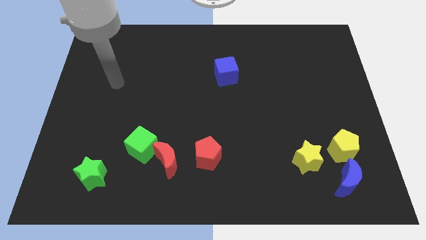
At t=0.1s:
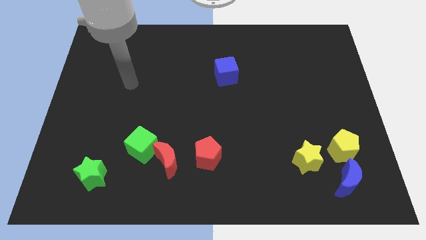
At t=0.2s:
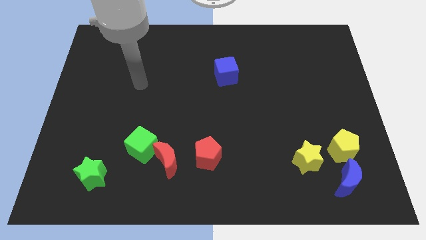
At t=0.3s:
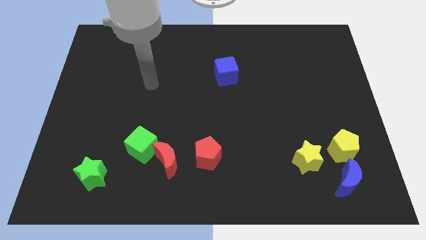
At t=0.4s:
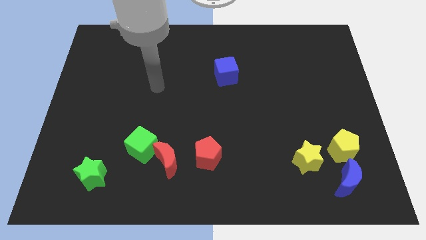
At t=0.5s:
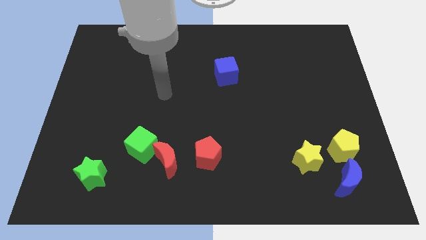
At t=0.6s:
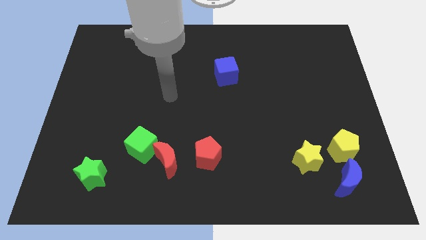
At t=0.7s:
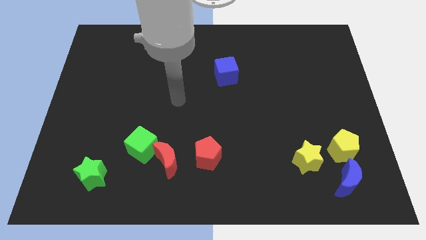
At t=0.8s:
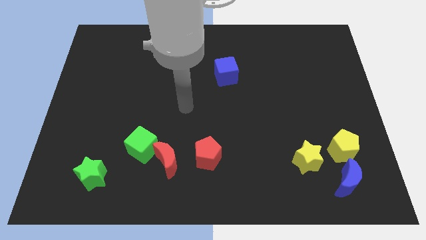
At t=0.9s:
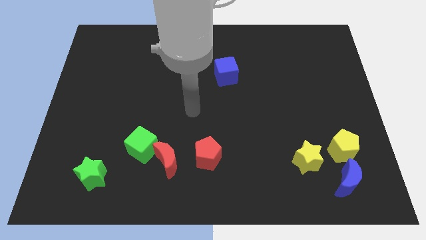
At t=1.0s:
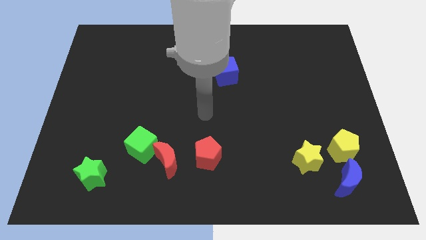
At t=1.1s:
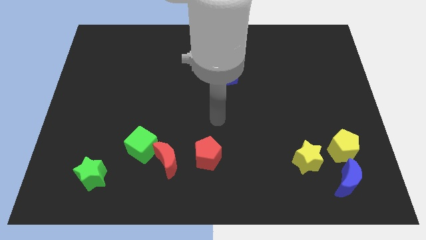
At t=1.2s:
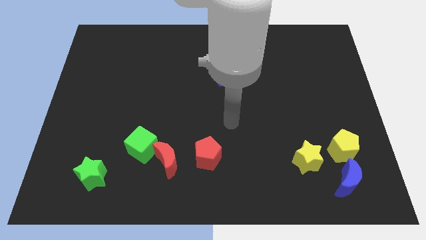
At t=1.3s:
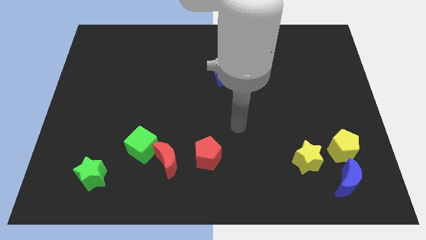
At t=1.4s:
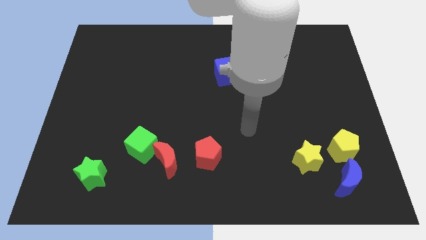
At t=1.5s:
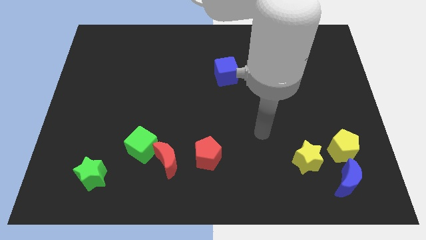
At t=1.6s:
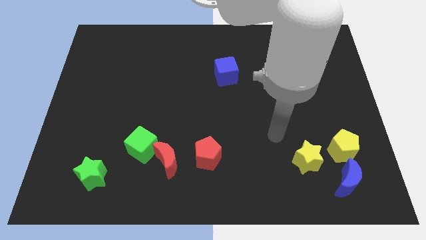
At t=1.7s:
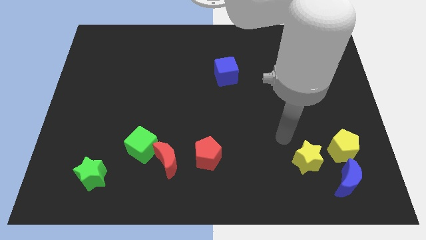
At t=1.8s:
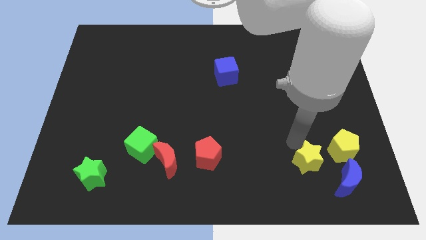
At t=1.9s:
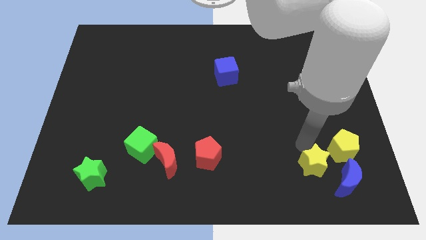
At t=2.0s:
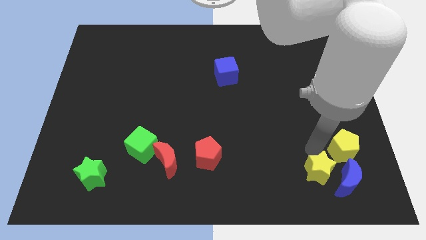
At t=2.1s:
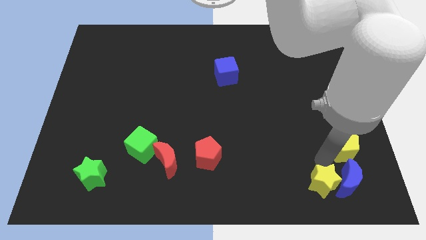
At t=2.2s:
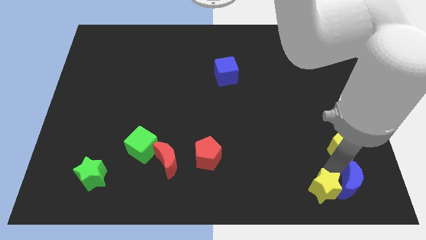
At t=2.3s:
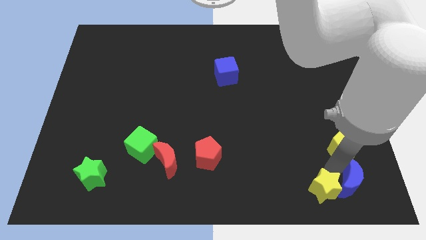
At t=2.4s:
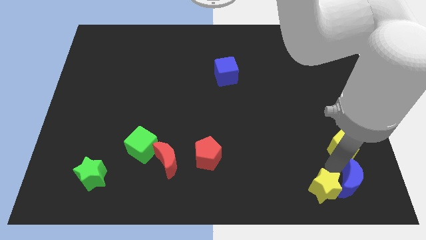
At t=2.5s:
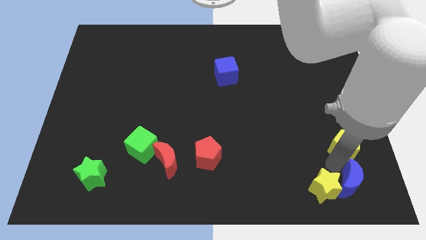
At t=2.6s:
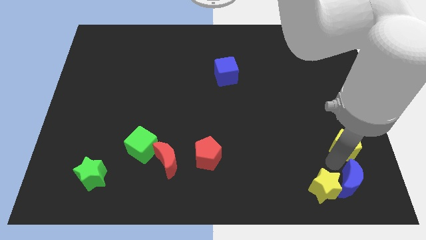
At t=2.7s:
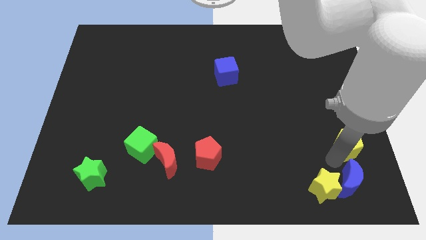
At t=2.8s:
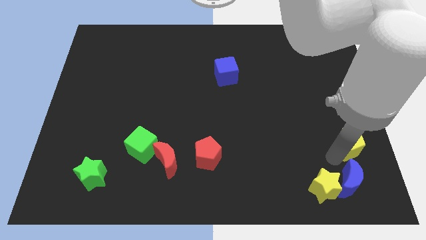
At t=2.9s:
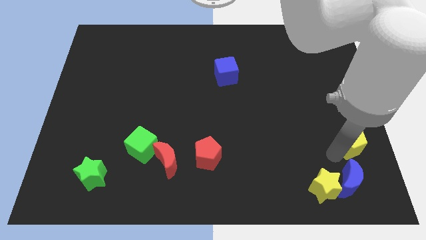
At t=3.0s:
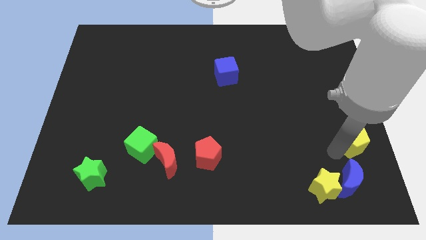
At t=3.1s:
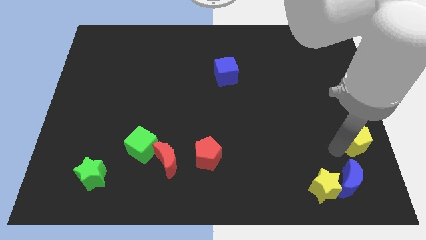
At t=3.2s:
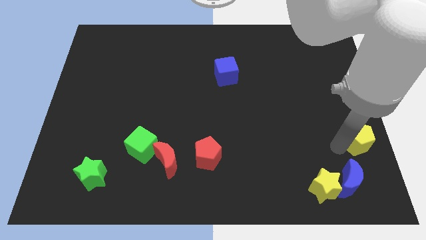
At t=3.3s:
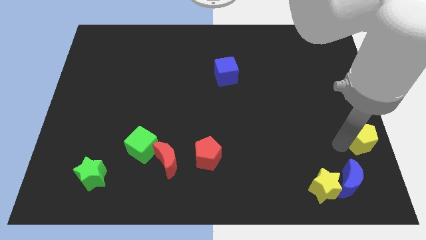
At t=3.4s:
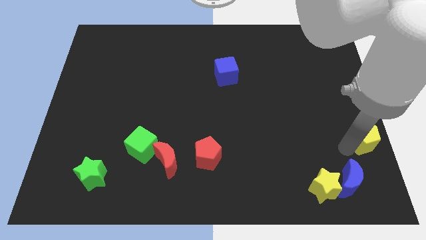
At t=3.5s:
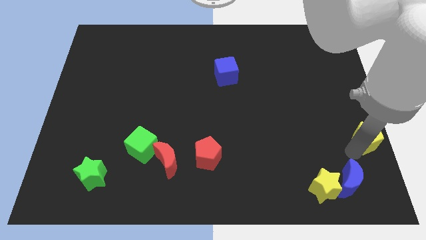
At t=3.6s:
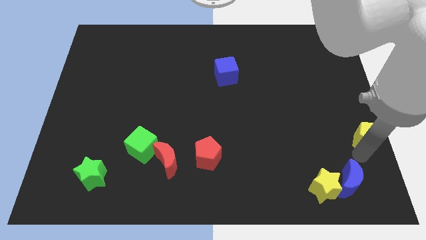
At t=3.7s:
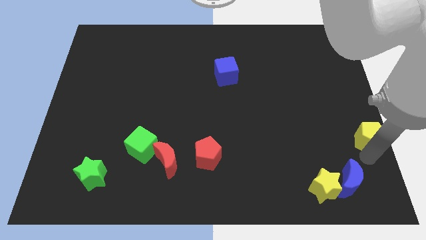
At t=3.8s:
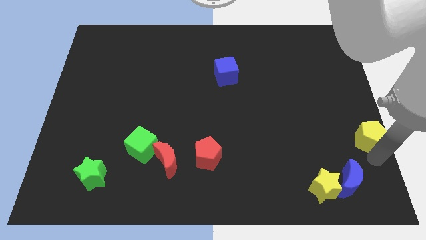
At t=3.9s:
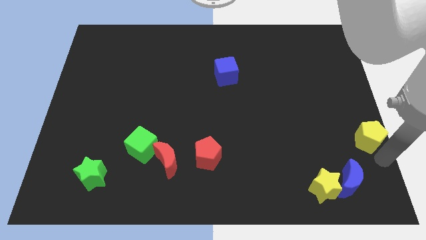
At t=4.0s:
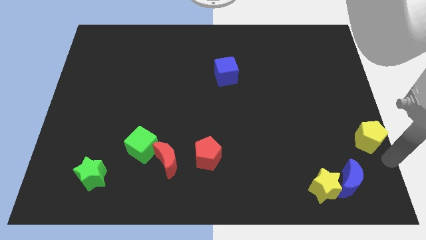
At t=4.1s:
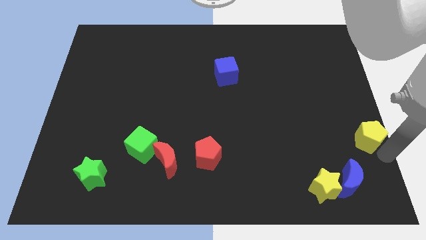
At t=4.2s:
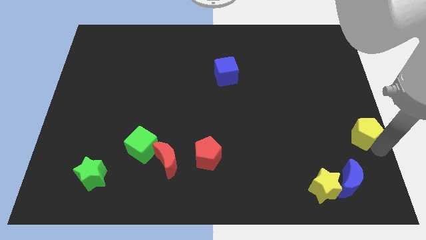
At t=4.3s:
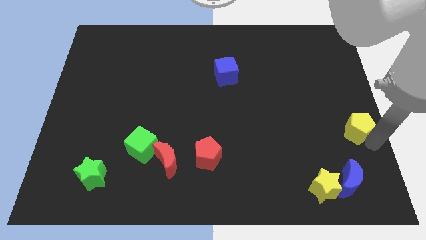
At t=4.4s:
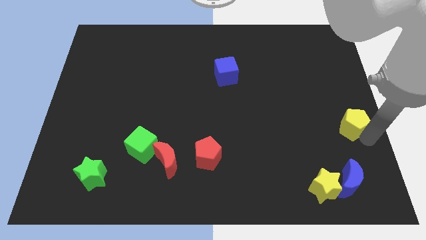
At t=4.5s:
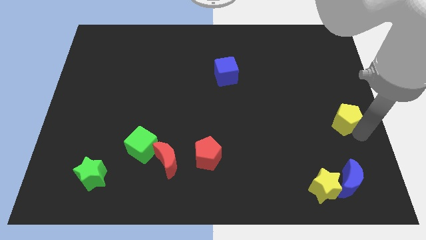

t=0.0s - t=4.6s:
slide the yellow pentagon up somewhat

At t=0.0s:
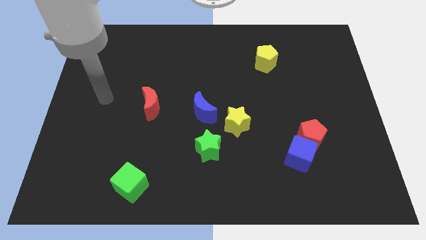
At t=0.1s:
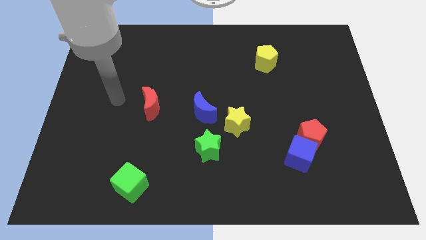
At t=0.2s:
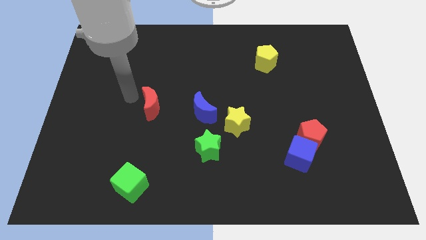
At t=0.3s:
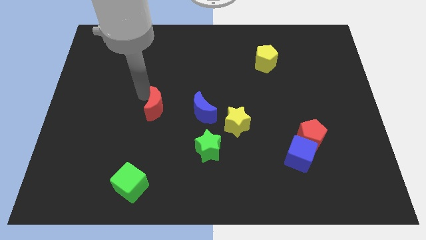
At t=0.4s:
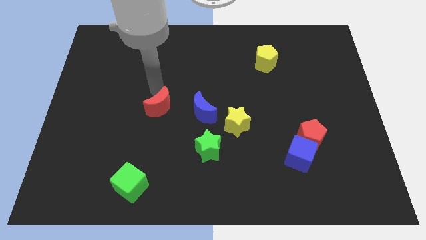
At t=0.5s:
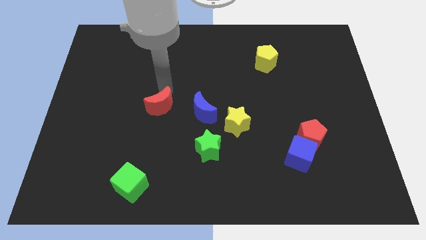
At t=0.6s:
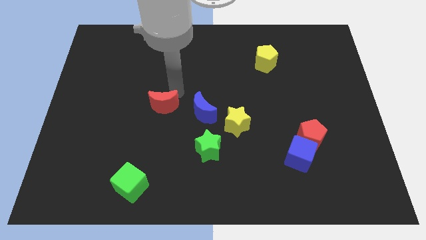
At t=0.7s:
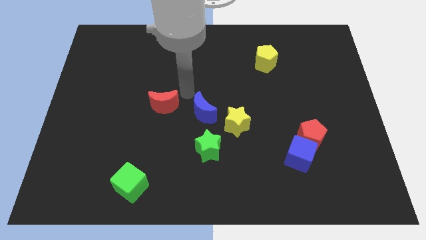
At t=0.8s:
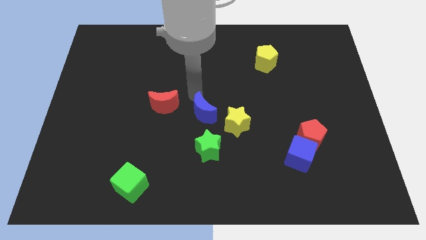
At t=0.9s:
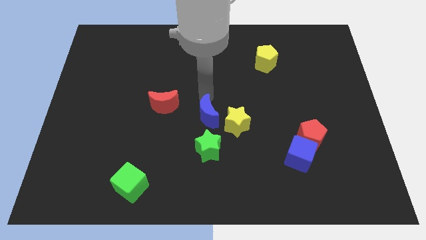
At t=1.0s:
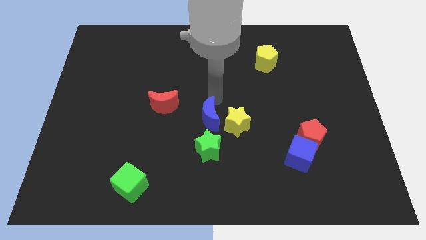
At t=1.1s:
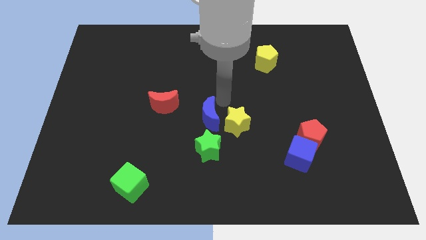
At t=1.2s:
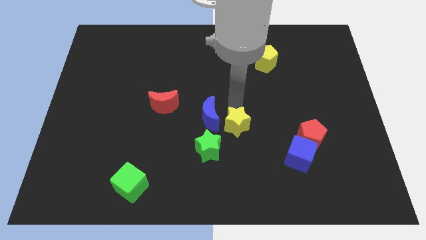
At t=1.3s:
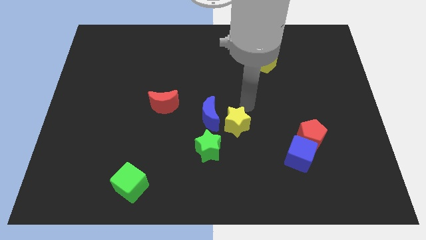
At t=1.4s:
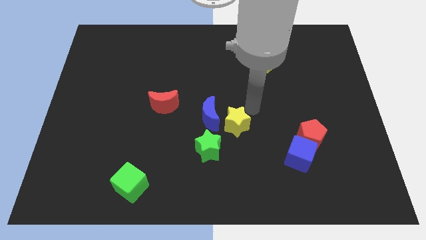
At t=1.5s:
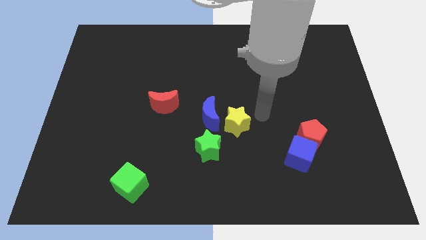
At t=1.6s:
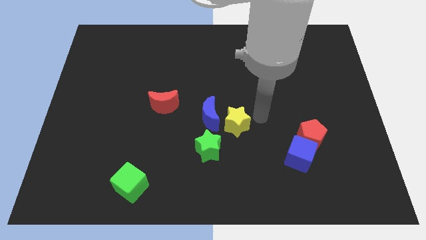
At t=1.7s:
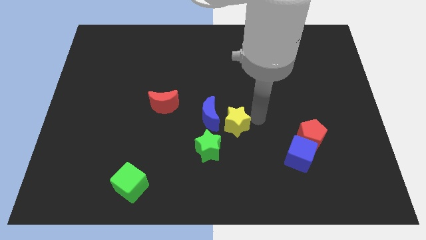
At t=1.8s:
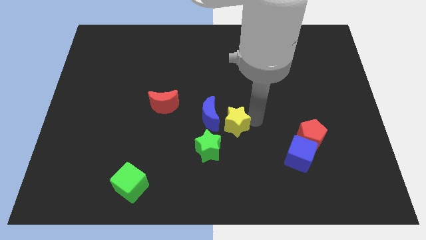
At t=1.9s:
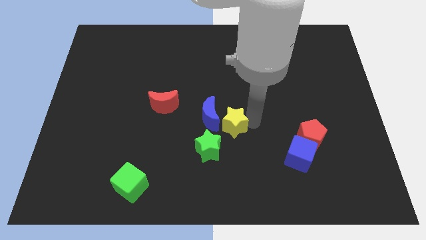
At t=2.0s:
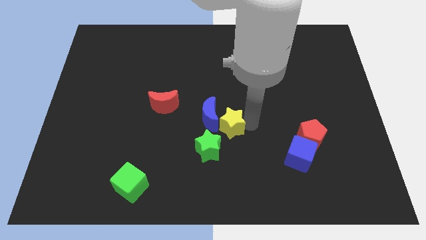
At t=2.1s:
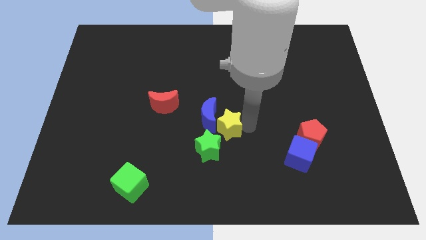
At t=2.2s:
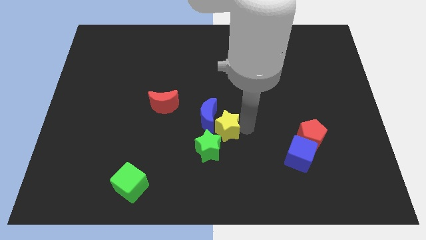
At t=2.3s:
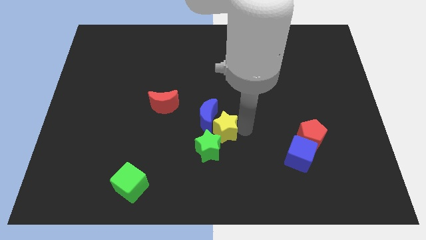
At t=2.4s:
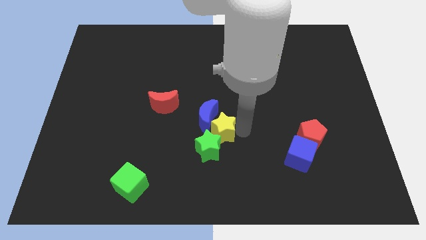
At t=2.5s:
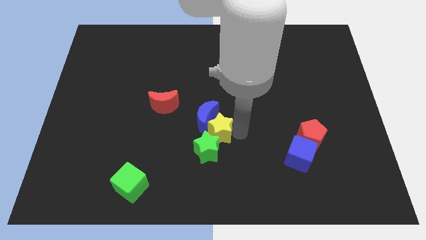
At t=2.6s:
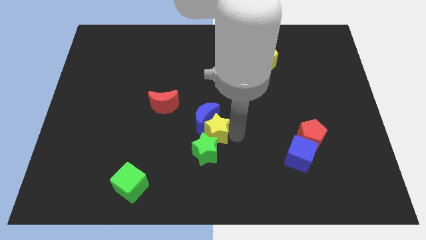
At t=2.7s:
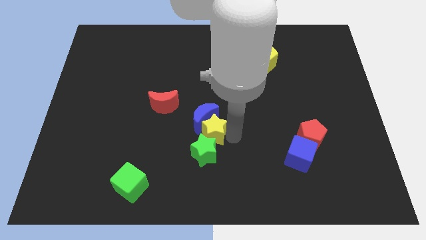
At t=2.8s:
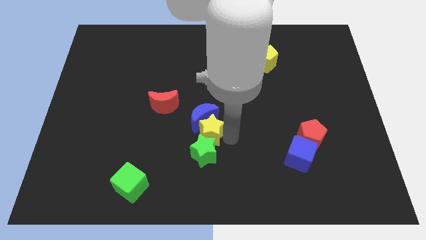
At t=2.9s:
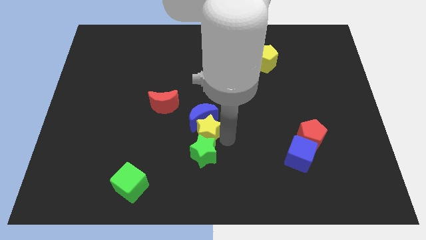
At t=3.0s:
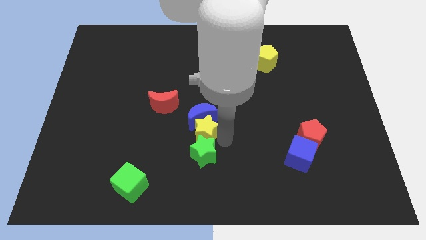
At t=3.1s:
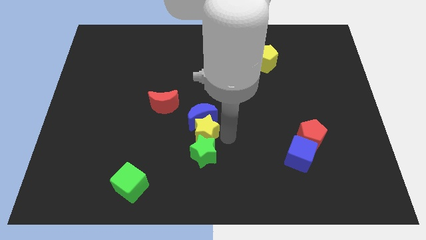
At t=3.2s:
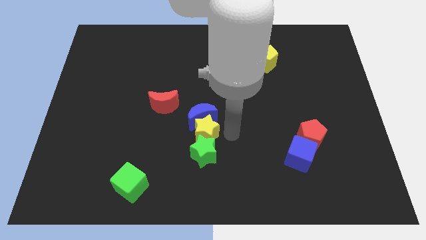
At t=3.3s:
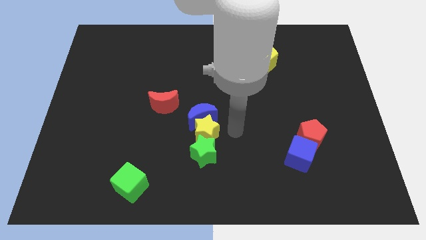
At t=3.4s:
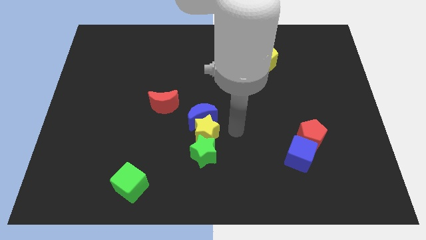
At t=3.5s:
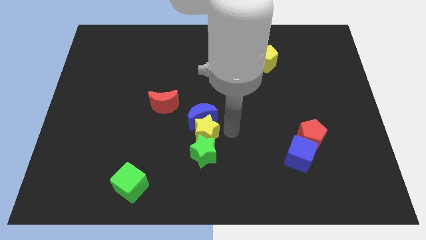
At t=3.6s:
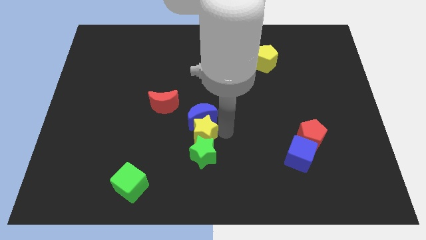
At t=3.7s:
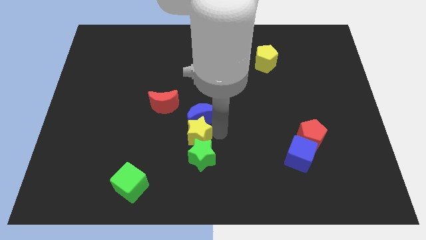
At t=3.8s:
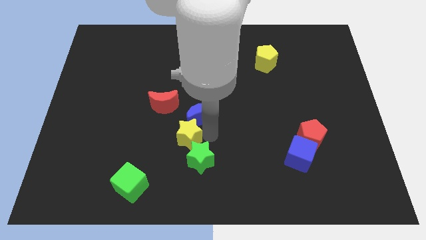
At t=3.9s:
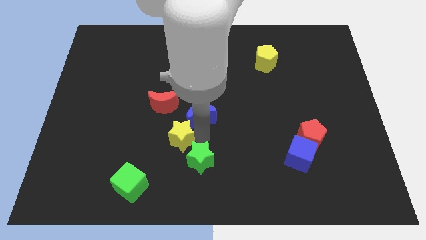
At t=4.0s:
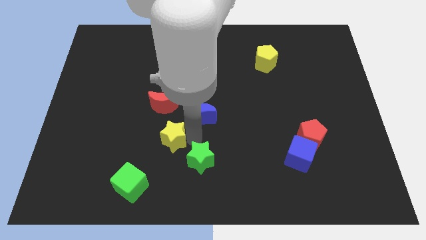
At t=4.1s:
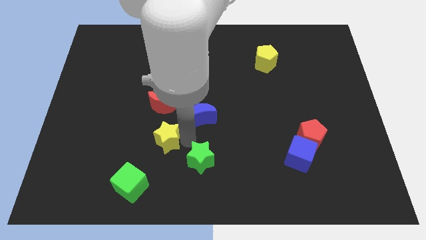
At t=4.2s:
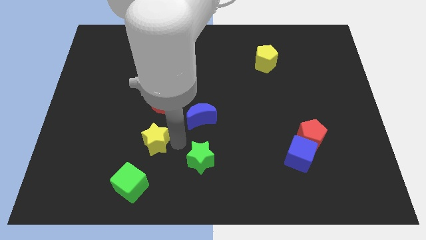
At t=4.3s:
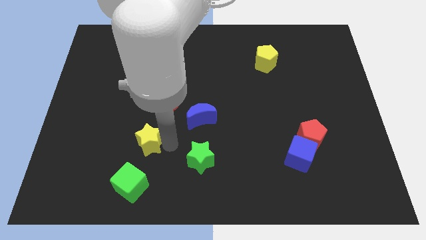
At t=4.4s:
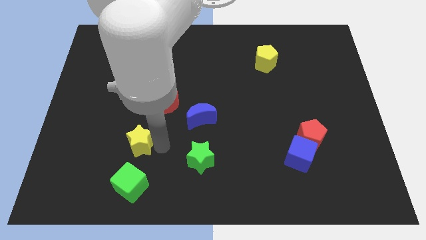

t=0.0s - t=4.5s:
move the yellow star left
